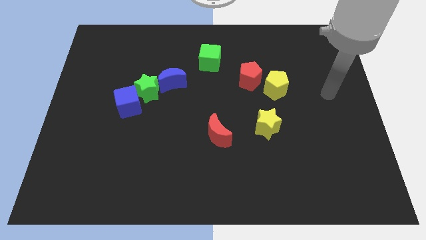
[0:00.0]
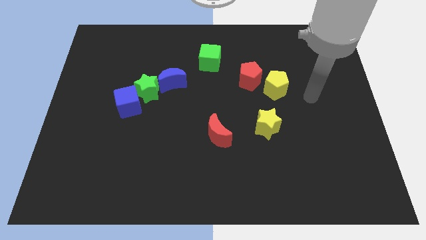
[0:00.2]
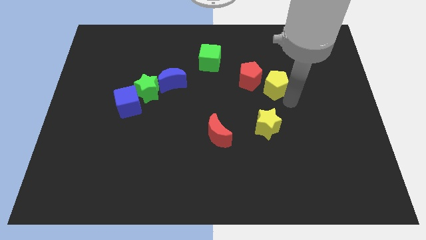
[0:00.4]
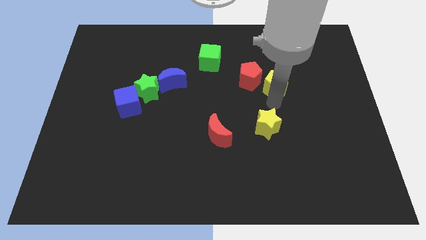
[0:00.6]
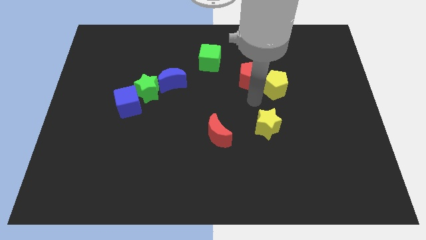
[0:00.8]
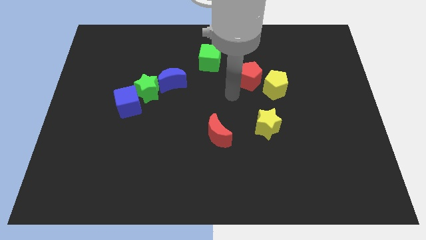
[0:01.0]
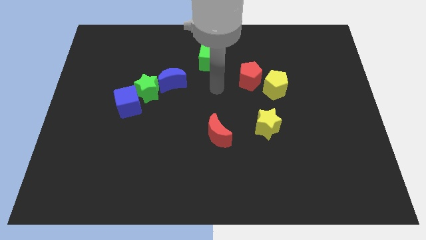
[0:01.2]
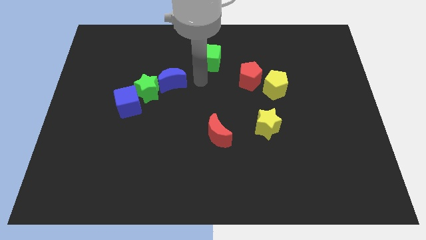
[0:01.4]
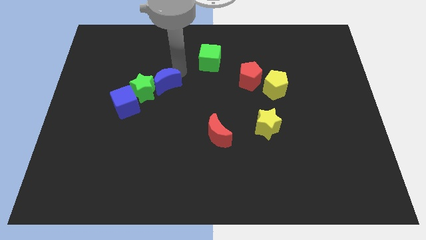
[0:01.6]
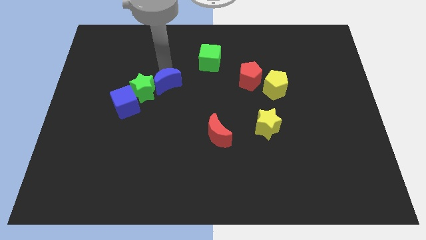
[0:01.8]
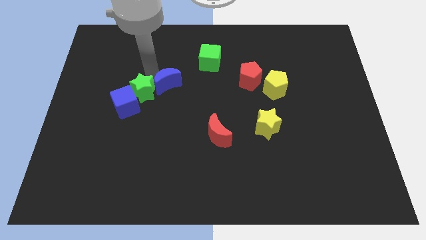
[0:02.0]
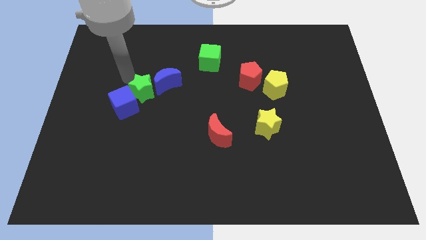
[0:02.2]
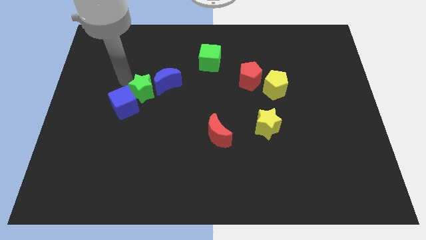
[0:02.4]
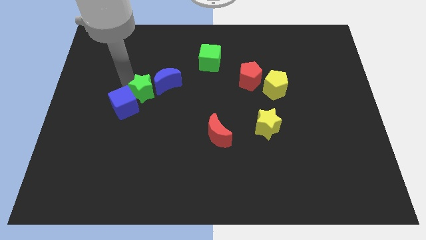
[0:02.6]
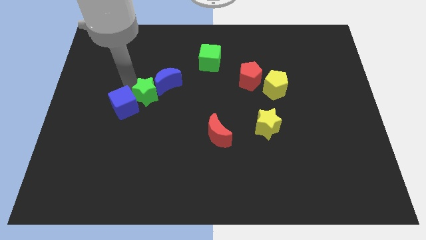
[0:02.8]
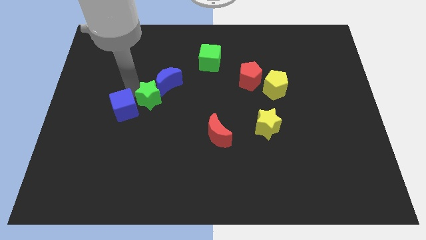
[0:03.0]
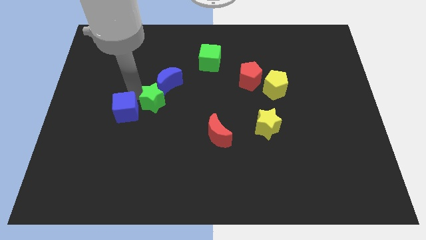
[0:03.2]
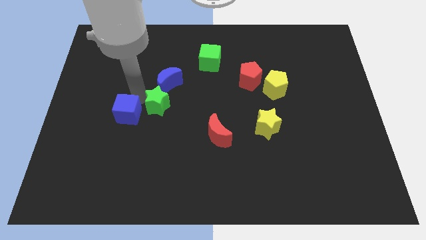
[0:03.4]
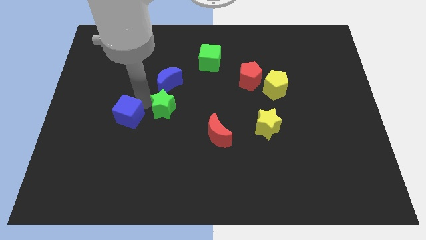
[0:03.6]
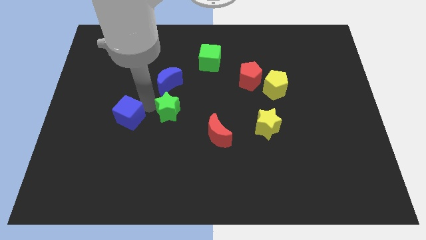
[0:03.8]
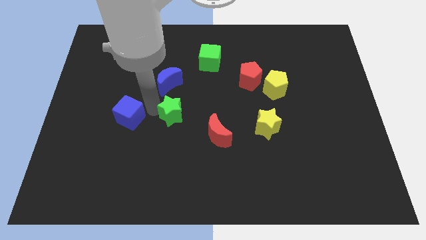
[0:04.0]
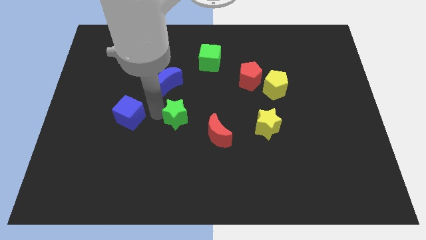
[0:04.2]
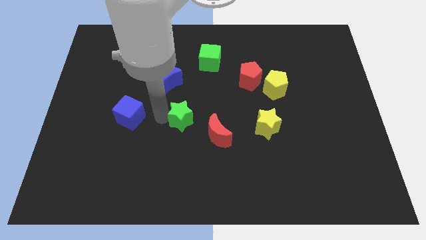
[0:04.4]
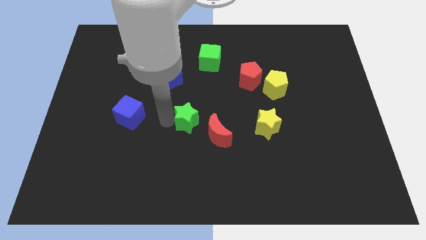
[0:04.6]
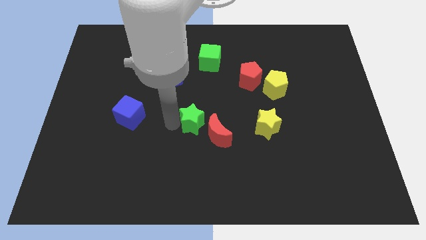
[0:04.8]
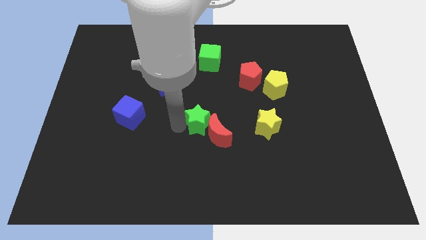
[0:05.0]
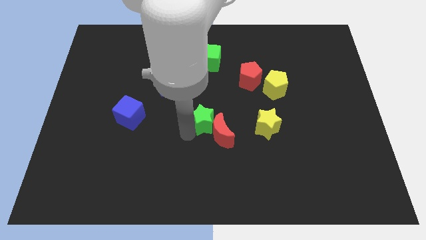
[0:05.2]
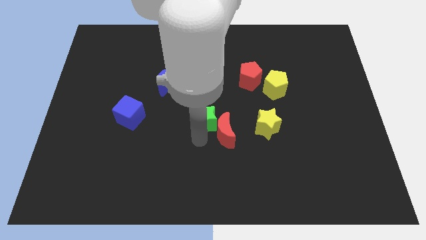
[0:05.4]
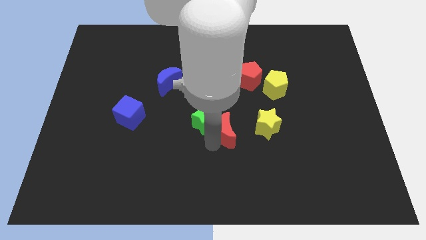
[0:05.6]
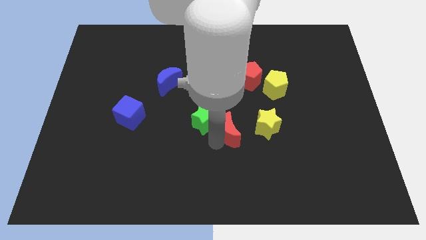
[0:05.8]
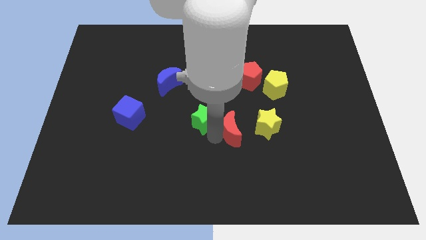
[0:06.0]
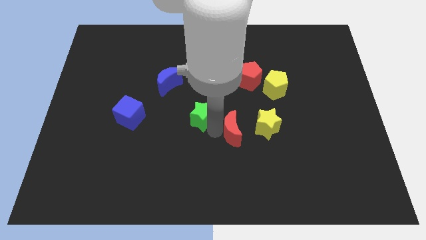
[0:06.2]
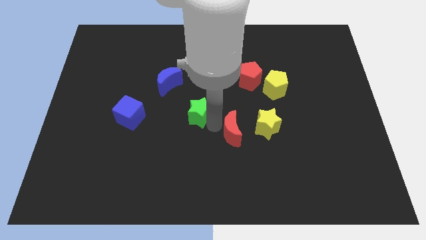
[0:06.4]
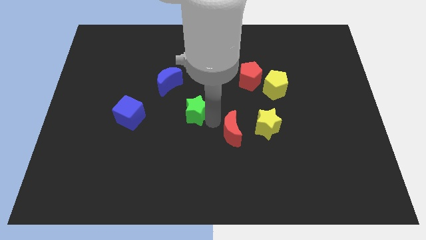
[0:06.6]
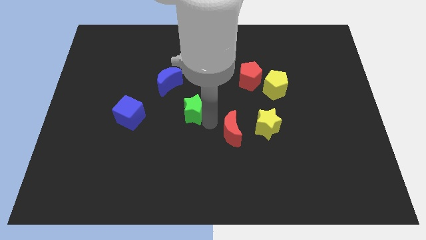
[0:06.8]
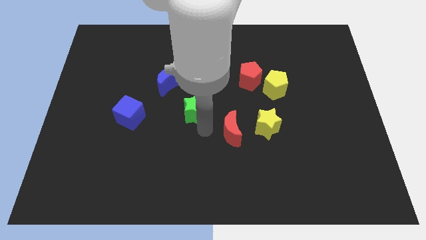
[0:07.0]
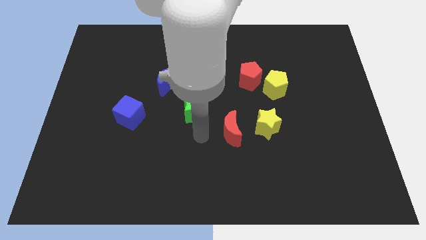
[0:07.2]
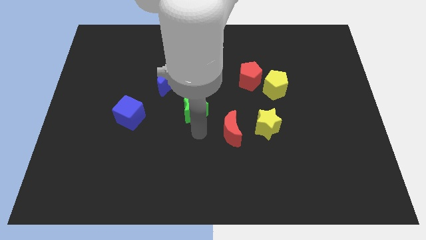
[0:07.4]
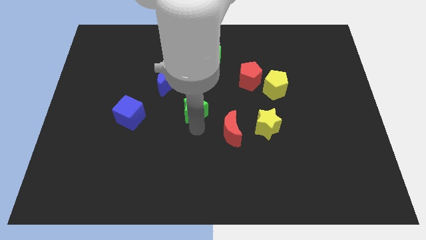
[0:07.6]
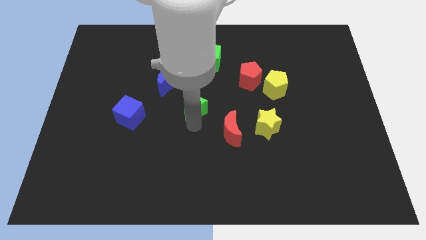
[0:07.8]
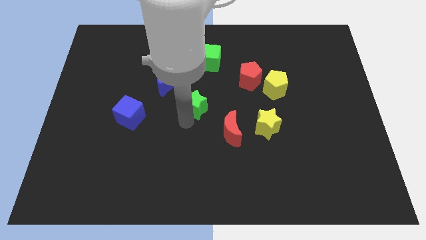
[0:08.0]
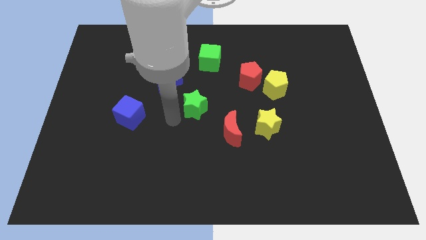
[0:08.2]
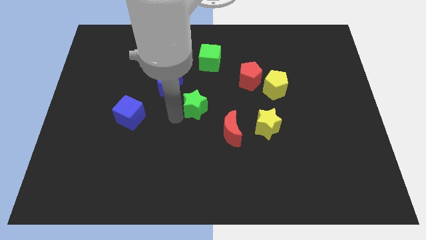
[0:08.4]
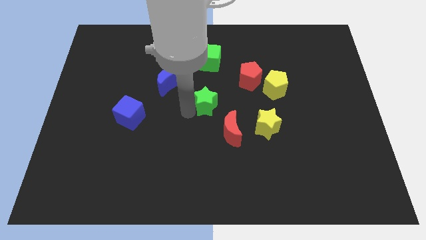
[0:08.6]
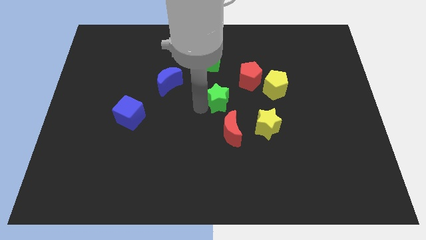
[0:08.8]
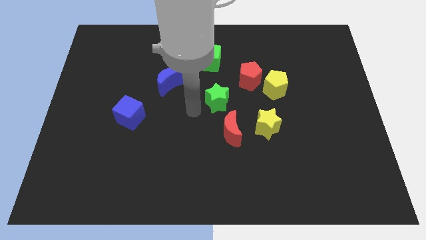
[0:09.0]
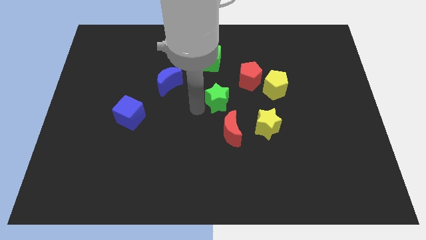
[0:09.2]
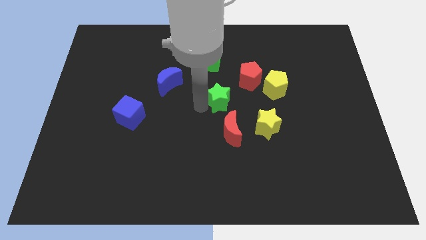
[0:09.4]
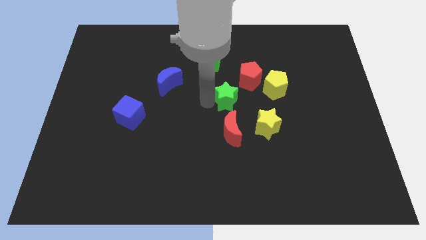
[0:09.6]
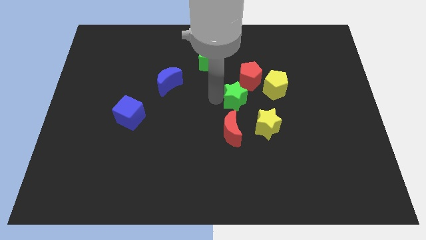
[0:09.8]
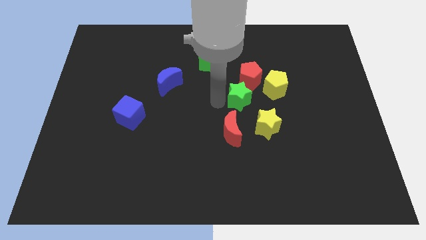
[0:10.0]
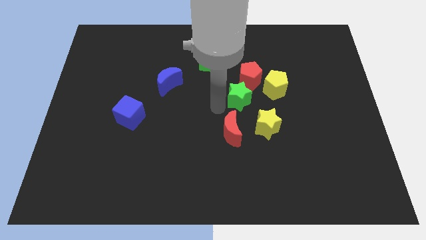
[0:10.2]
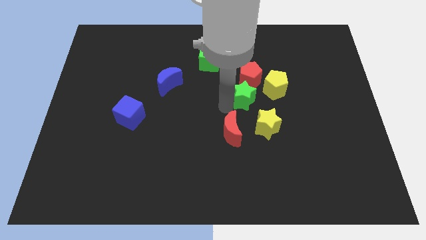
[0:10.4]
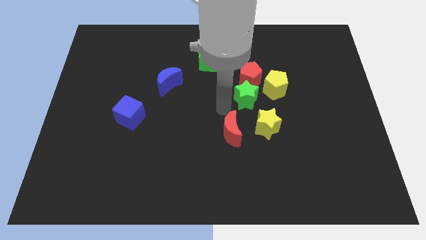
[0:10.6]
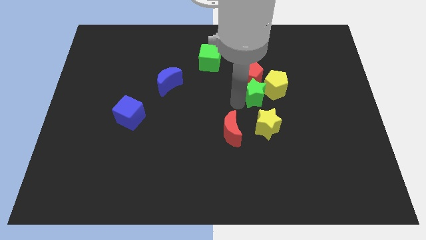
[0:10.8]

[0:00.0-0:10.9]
slide the green star to the yellow pentagon
